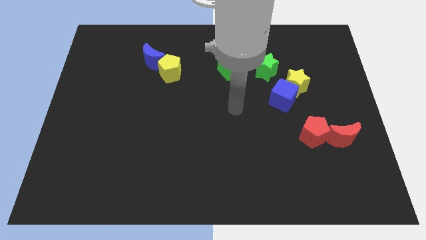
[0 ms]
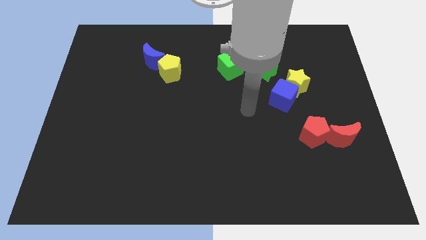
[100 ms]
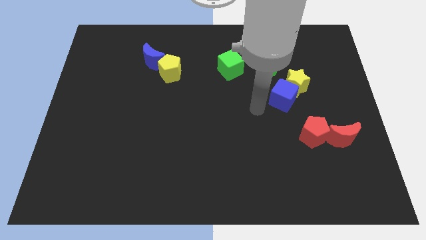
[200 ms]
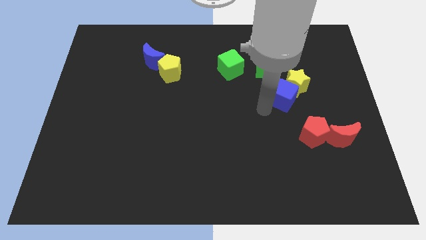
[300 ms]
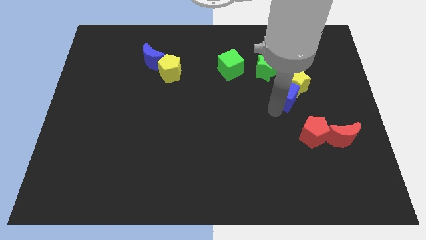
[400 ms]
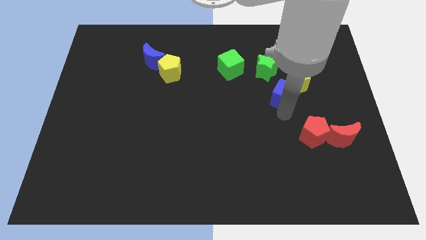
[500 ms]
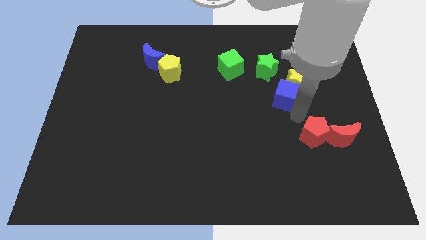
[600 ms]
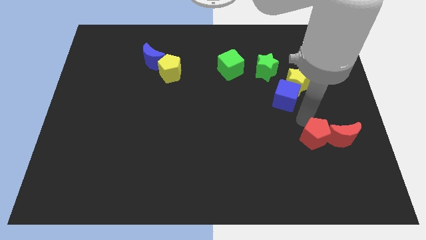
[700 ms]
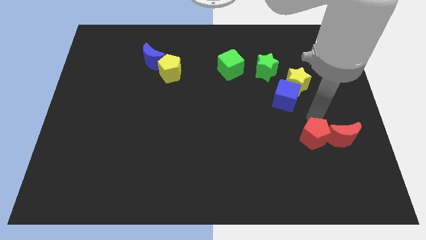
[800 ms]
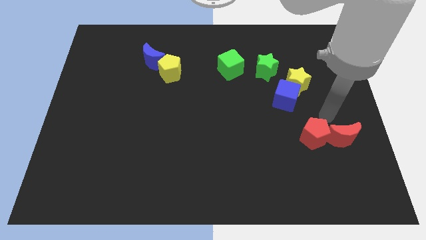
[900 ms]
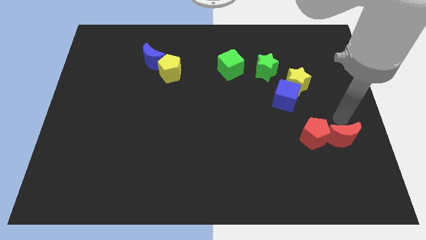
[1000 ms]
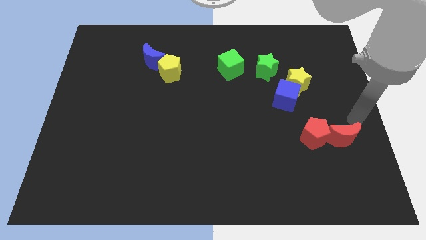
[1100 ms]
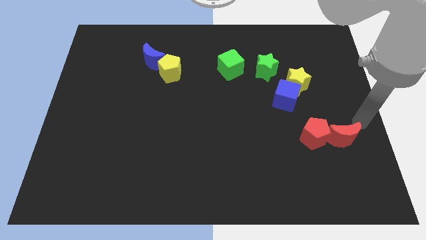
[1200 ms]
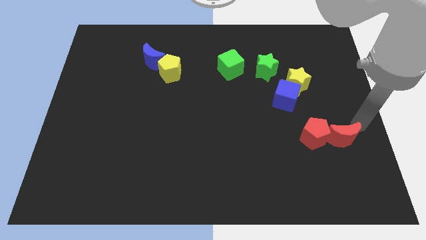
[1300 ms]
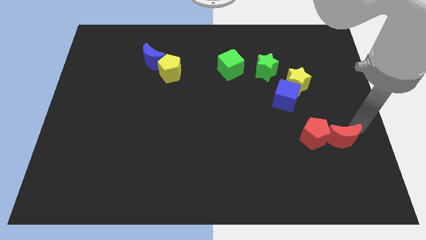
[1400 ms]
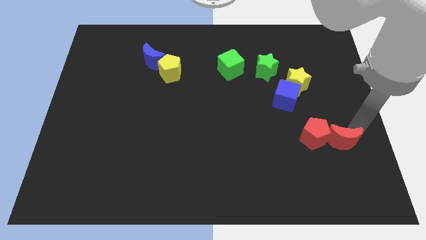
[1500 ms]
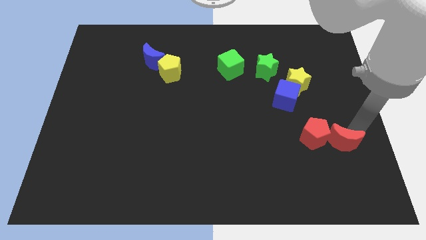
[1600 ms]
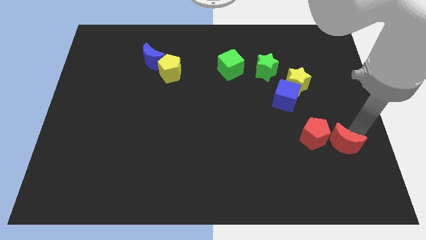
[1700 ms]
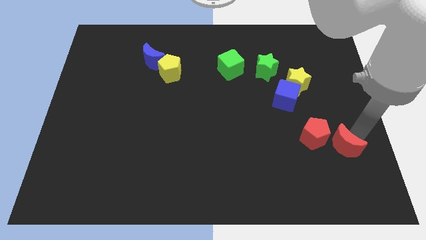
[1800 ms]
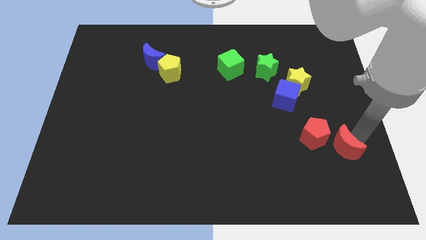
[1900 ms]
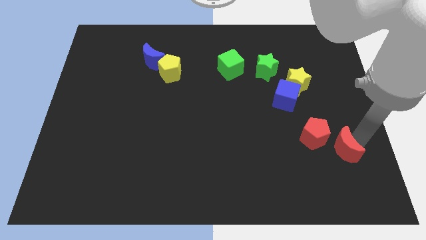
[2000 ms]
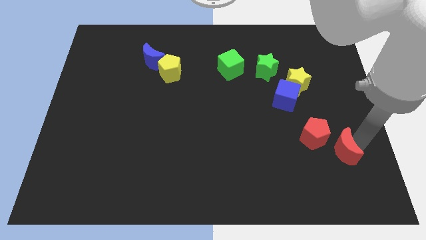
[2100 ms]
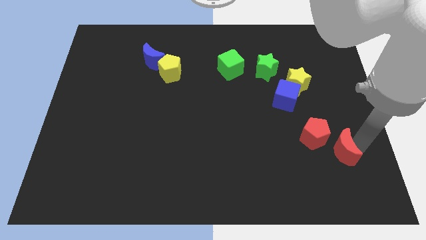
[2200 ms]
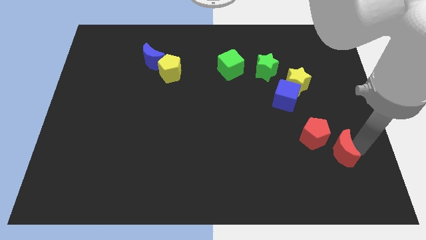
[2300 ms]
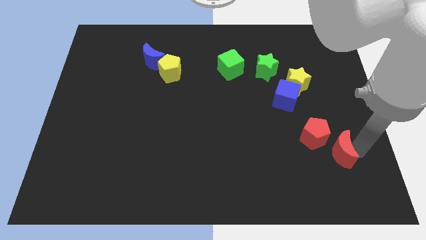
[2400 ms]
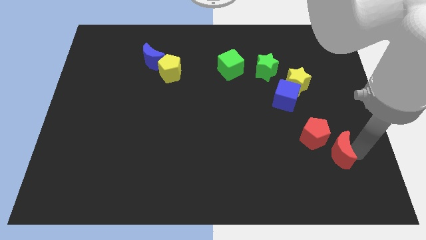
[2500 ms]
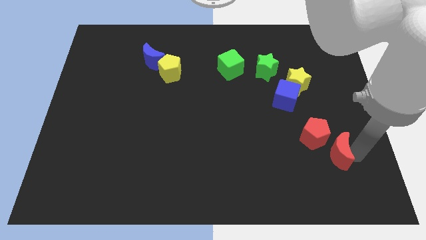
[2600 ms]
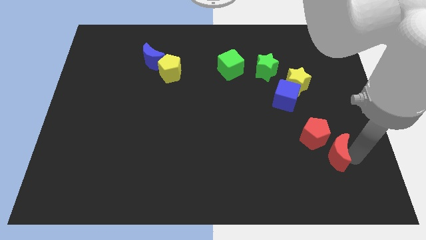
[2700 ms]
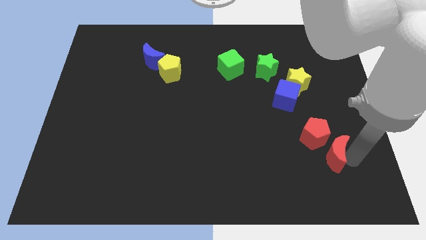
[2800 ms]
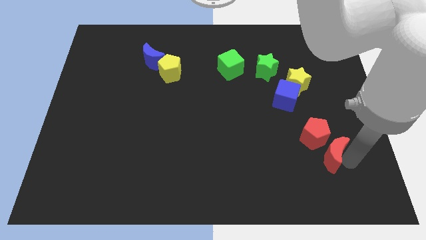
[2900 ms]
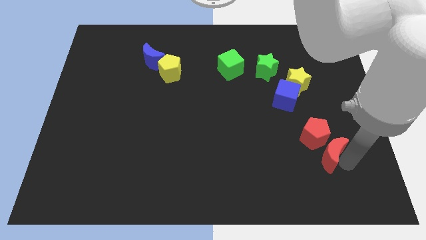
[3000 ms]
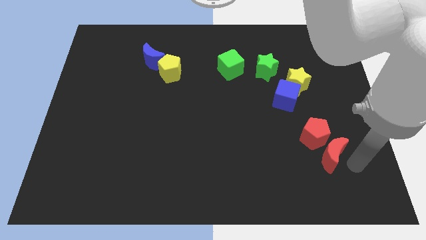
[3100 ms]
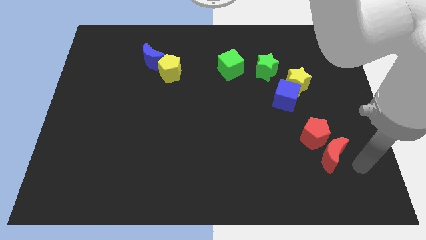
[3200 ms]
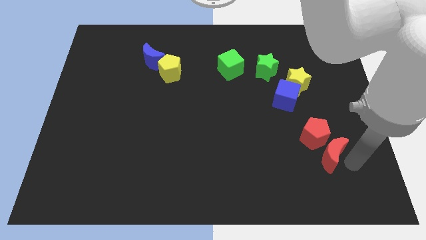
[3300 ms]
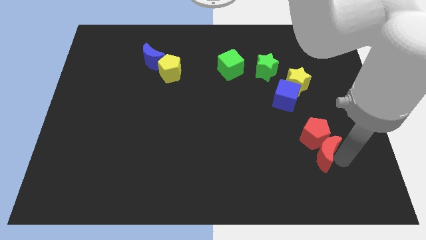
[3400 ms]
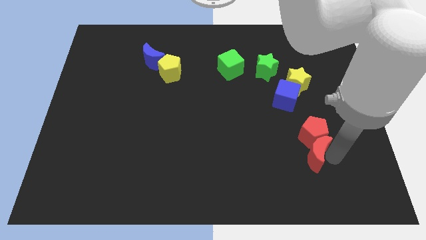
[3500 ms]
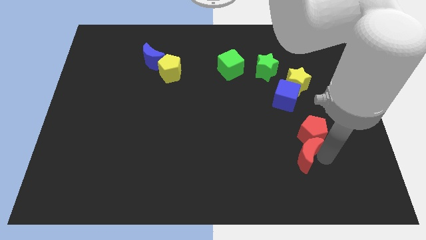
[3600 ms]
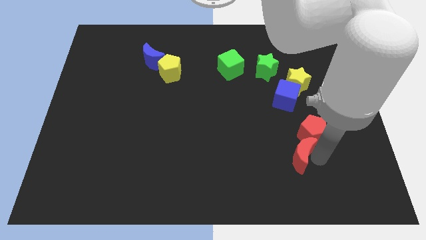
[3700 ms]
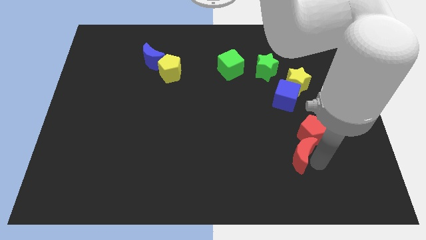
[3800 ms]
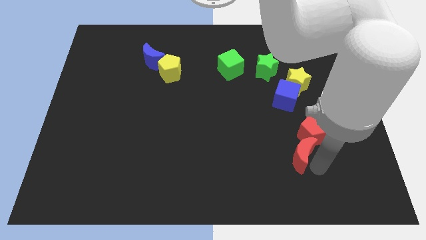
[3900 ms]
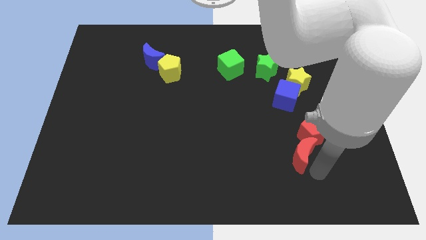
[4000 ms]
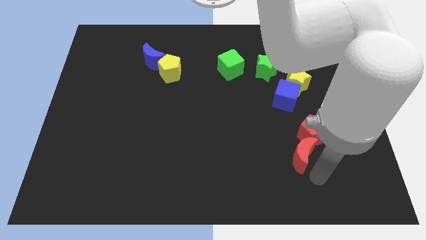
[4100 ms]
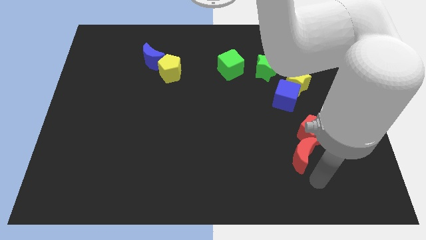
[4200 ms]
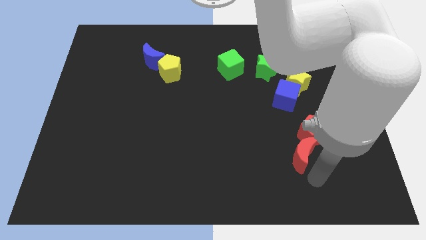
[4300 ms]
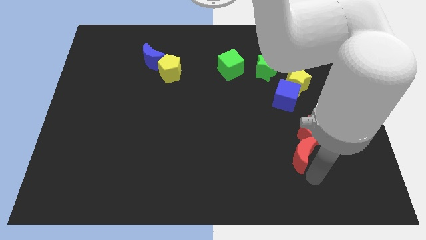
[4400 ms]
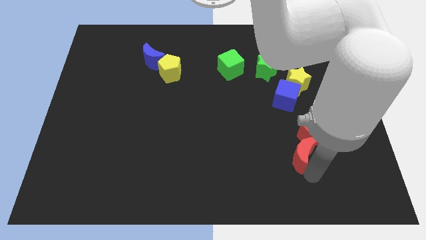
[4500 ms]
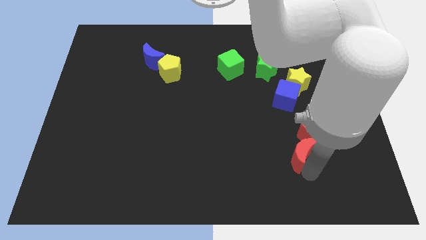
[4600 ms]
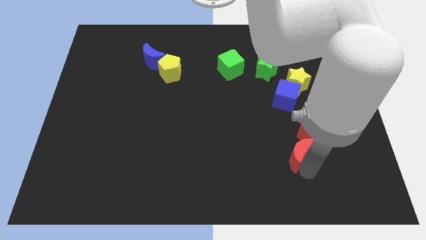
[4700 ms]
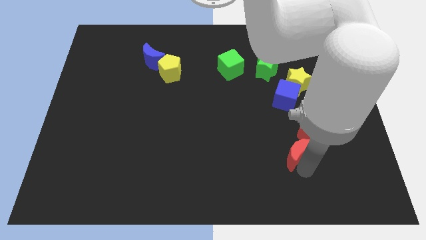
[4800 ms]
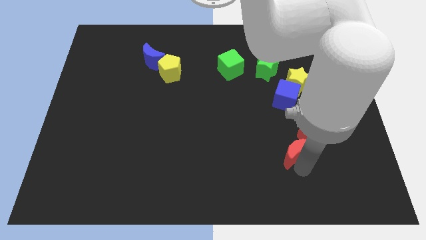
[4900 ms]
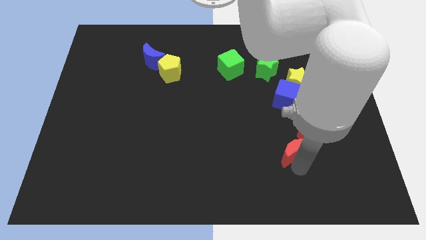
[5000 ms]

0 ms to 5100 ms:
slide the red moon to the left of the red pentagon

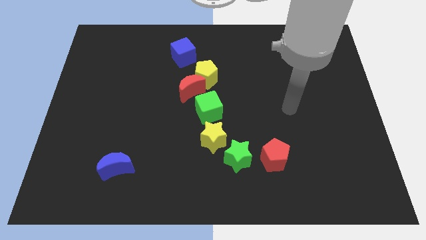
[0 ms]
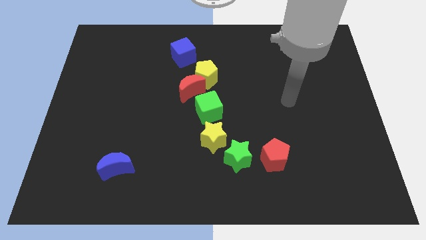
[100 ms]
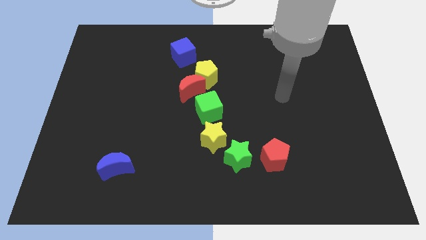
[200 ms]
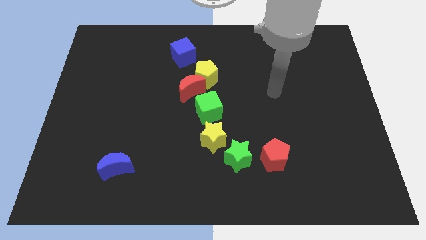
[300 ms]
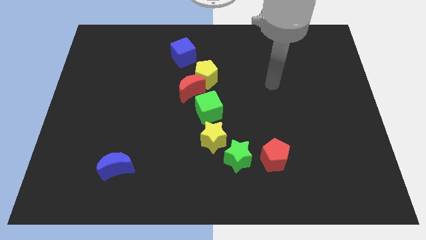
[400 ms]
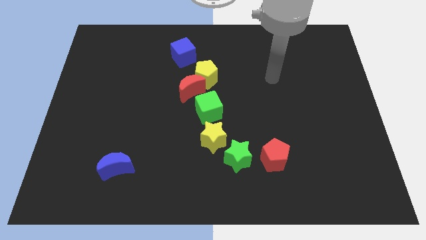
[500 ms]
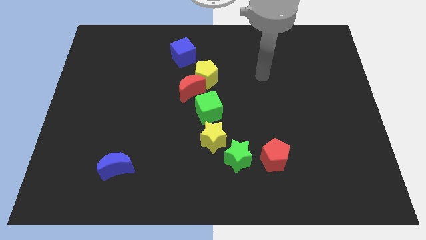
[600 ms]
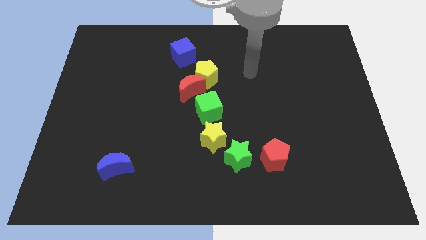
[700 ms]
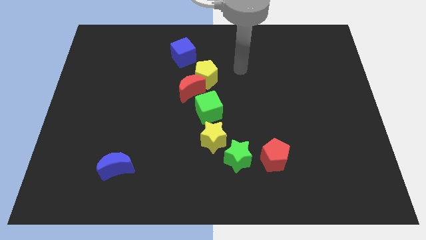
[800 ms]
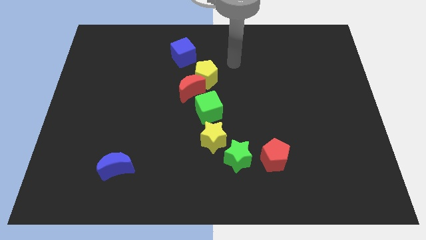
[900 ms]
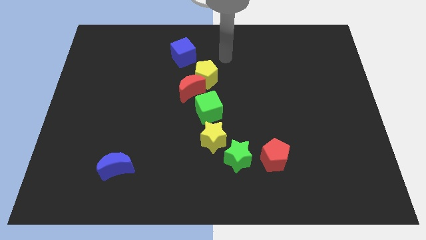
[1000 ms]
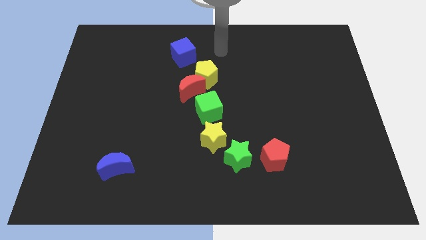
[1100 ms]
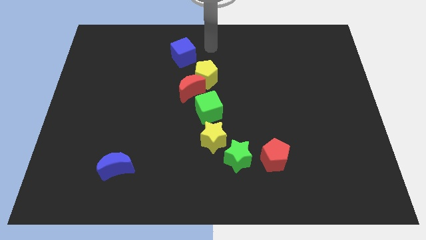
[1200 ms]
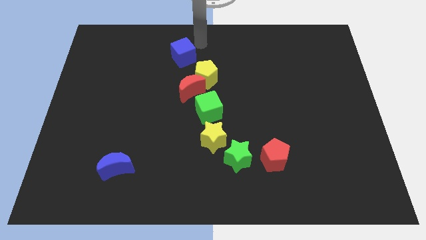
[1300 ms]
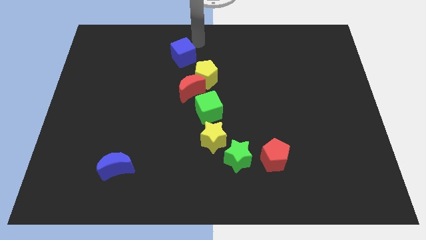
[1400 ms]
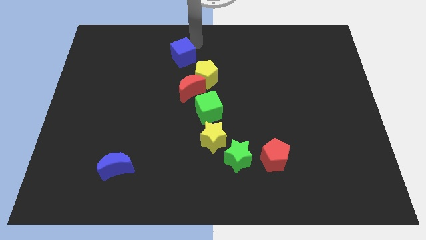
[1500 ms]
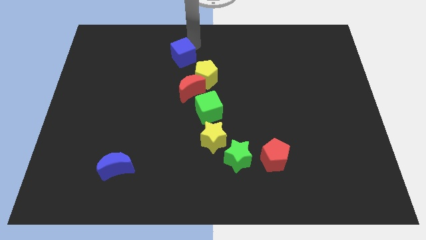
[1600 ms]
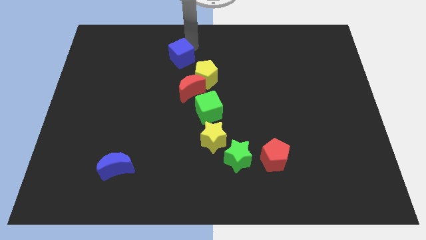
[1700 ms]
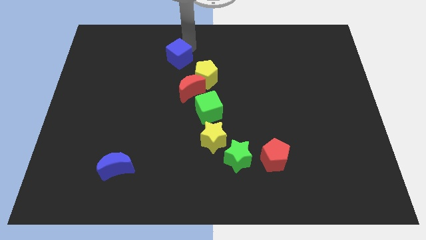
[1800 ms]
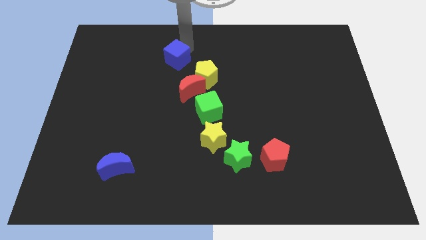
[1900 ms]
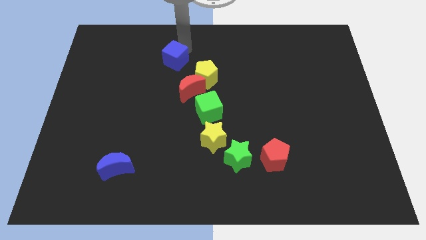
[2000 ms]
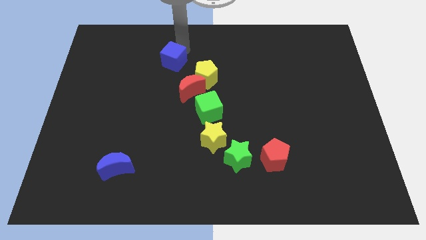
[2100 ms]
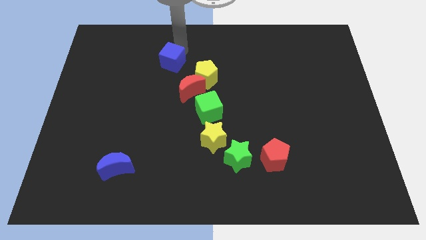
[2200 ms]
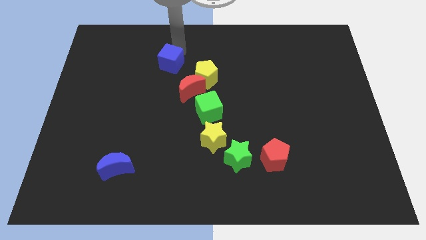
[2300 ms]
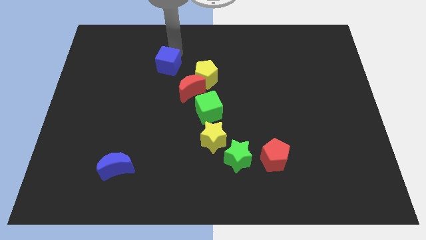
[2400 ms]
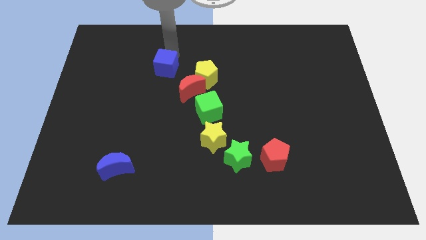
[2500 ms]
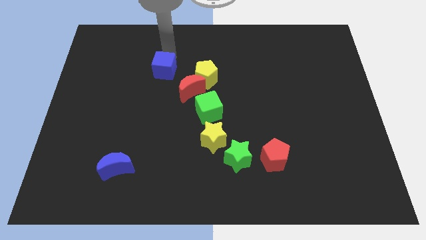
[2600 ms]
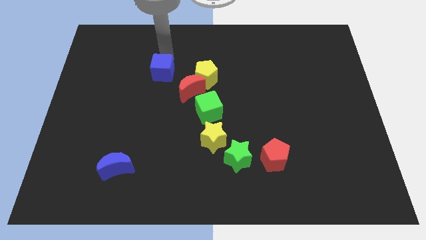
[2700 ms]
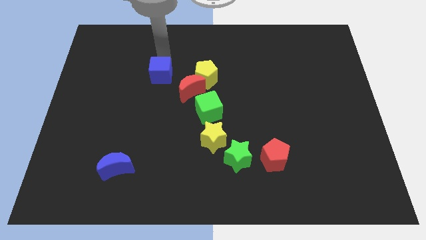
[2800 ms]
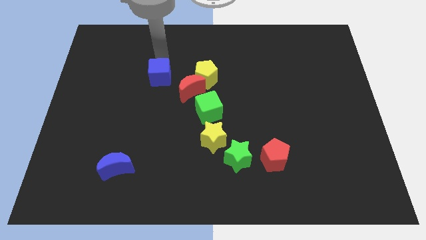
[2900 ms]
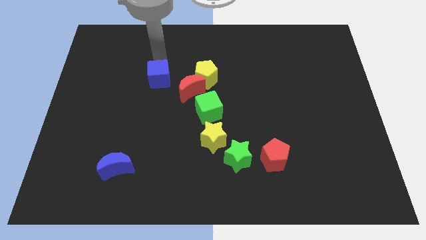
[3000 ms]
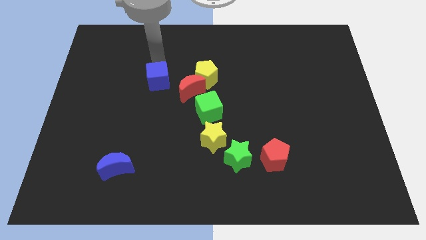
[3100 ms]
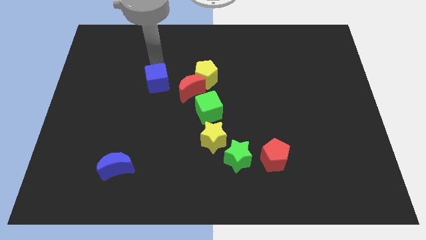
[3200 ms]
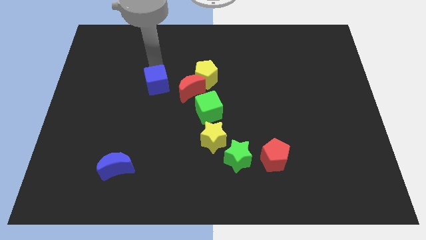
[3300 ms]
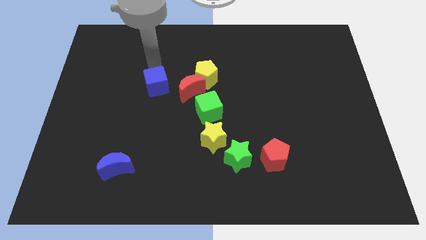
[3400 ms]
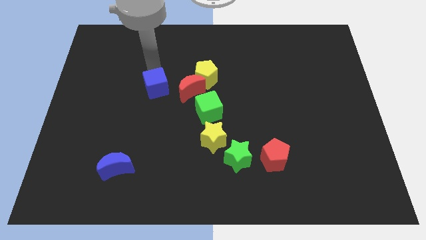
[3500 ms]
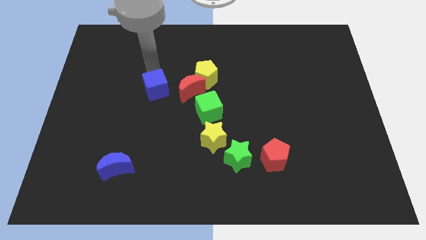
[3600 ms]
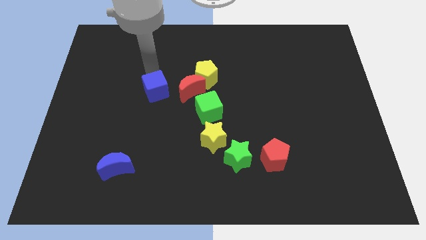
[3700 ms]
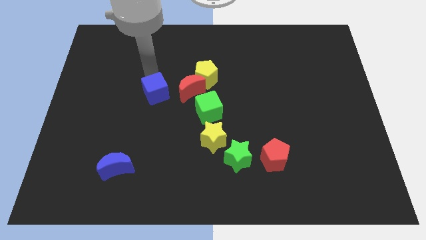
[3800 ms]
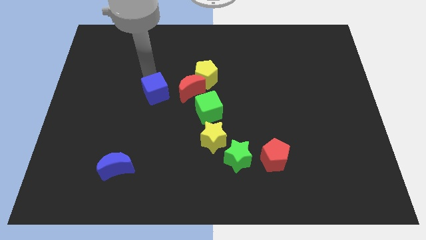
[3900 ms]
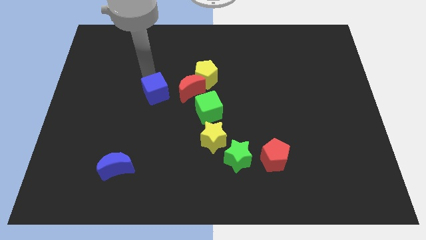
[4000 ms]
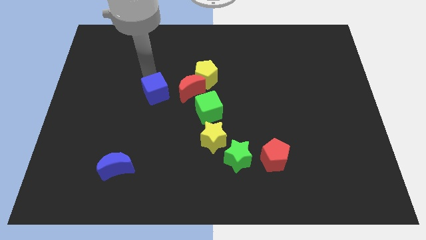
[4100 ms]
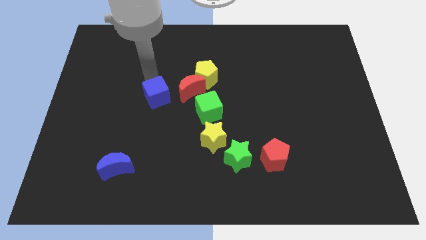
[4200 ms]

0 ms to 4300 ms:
slide the blue cube to the left of the green cube
